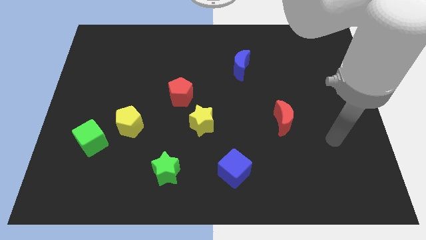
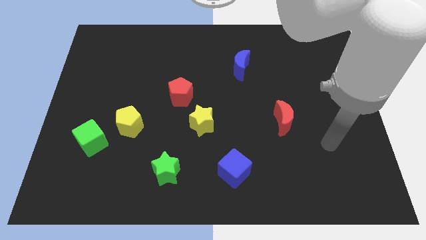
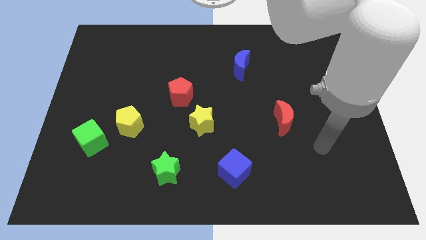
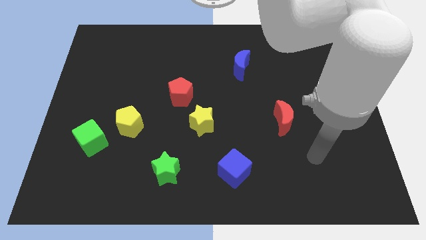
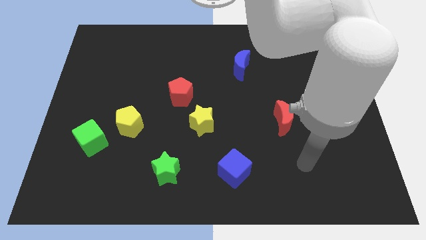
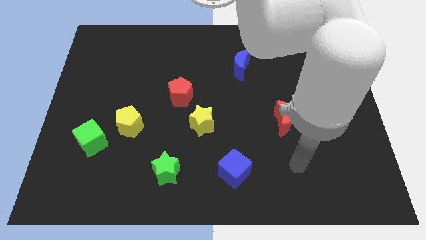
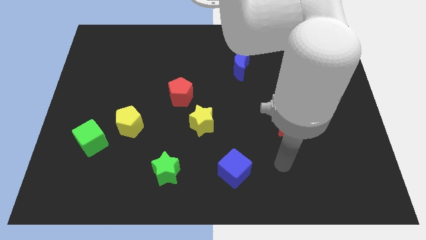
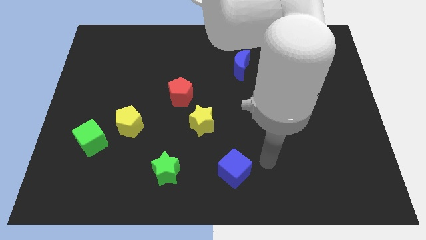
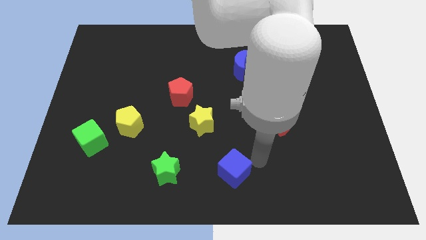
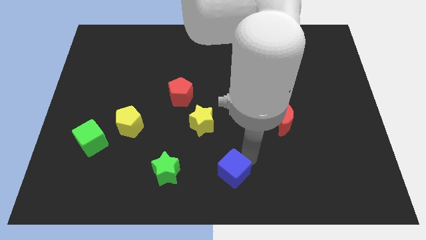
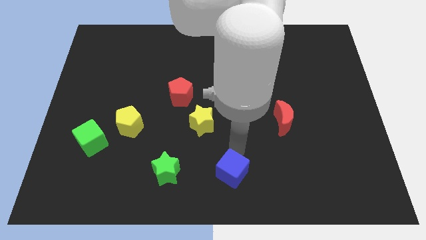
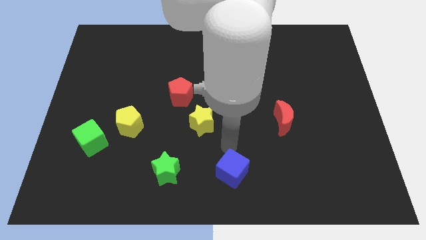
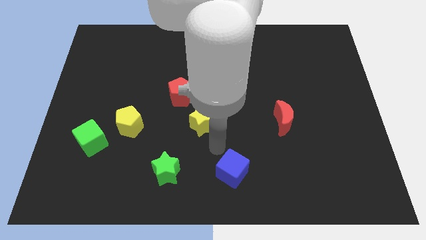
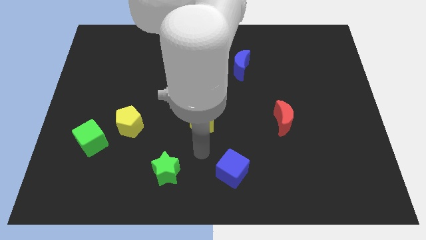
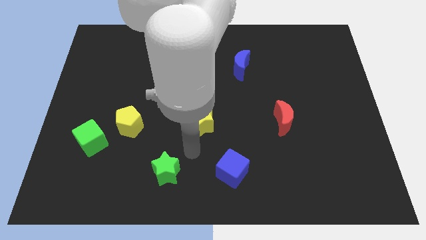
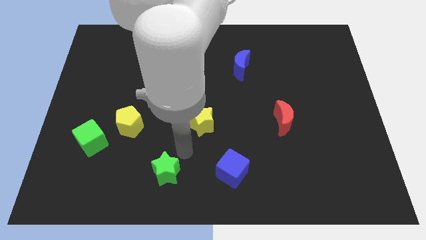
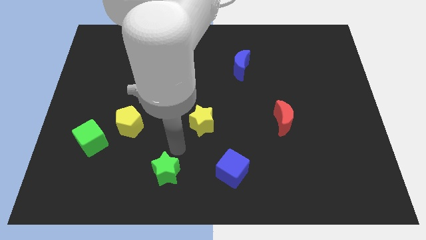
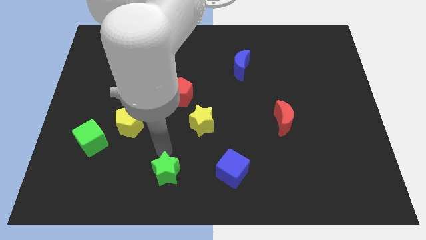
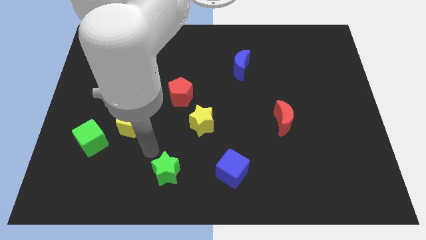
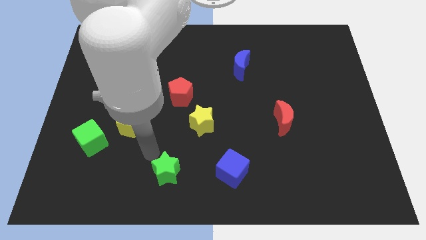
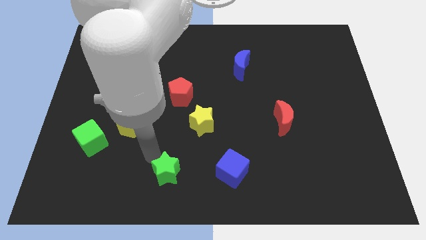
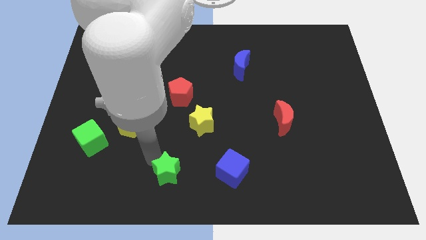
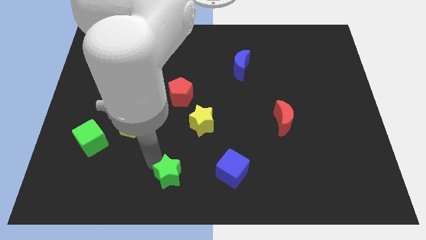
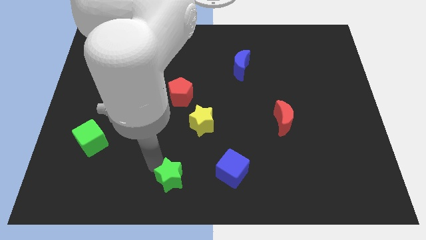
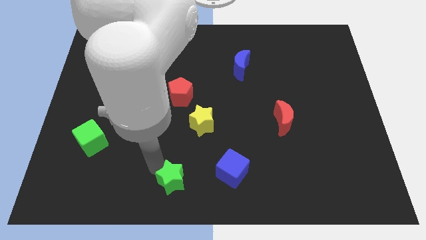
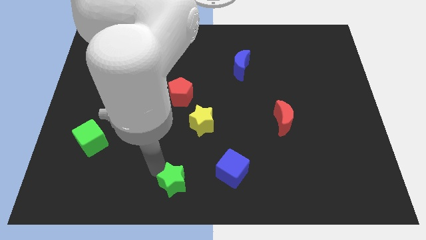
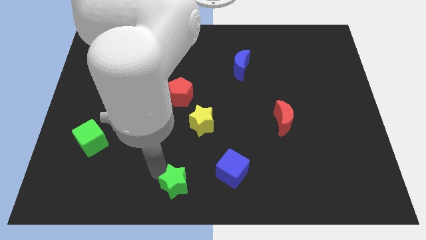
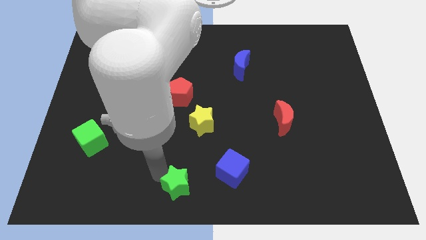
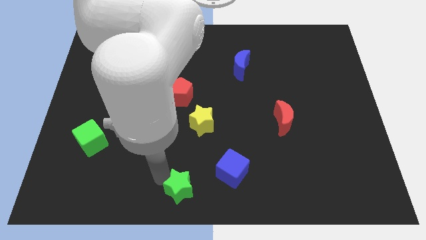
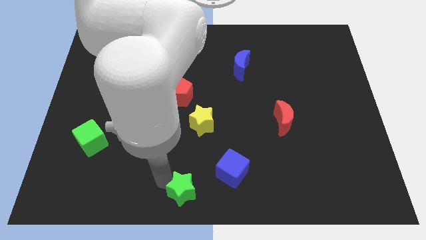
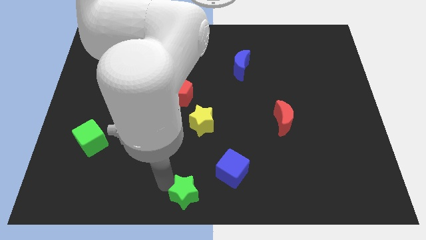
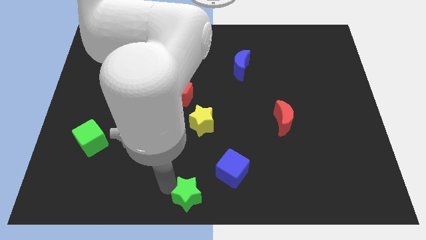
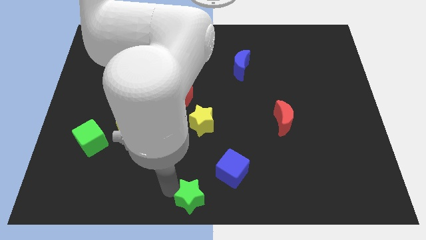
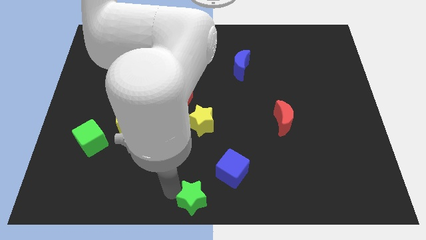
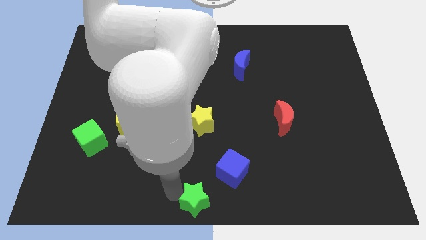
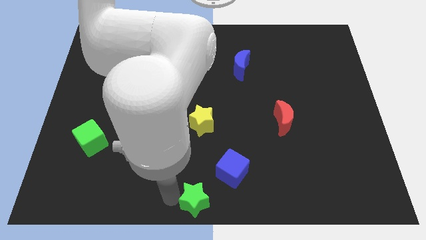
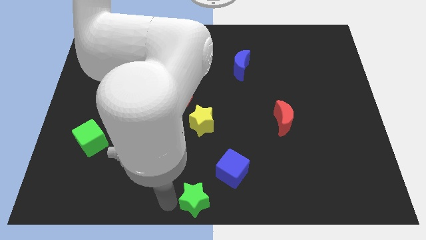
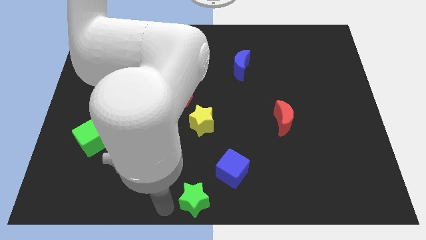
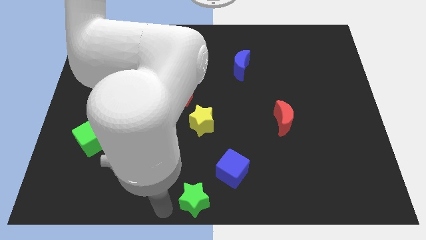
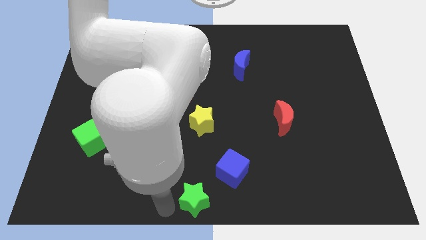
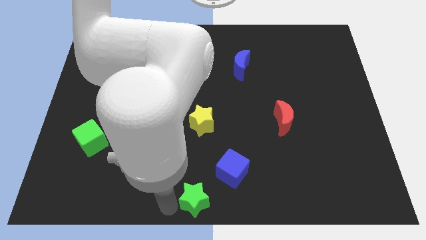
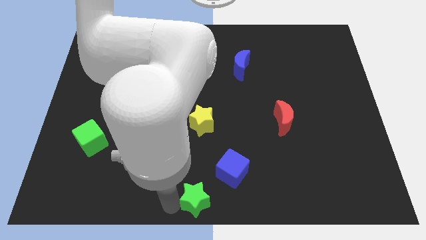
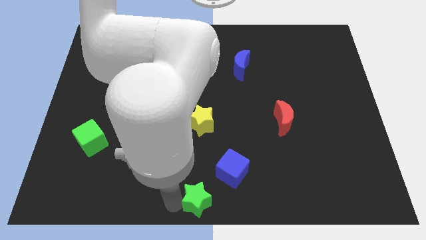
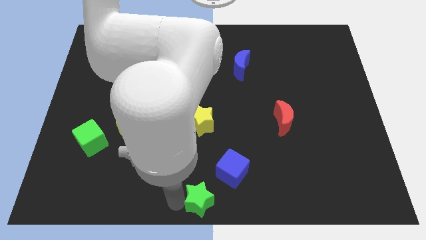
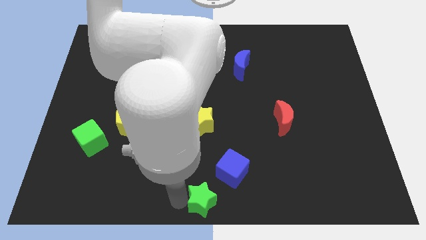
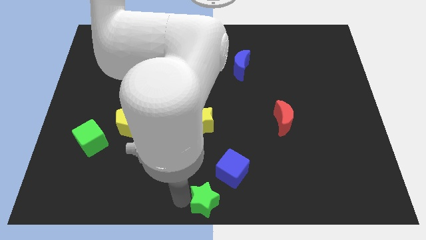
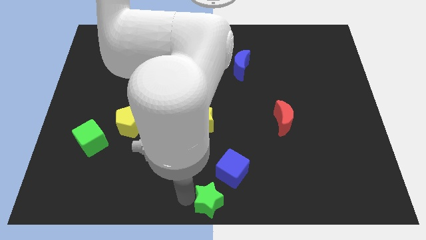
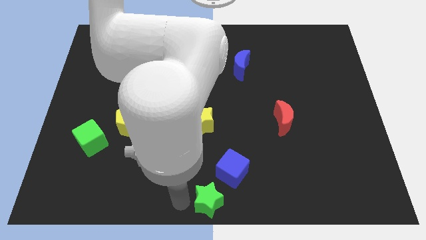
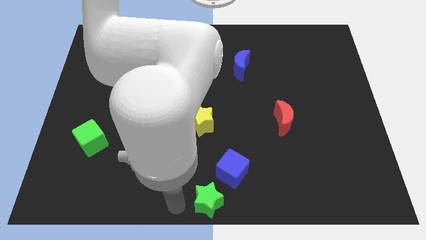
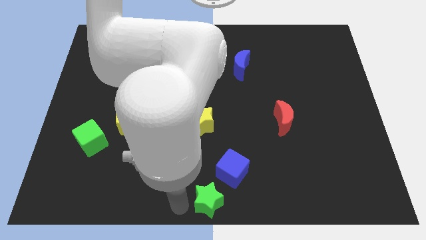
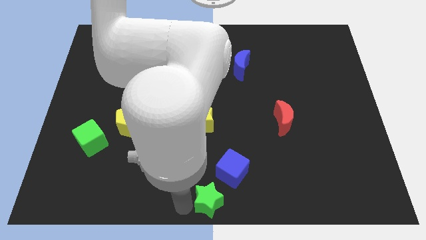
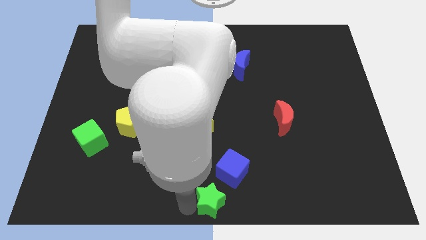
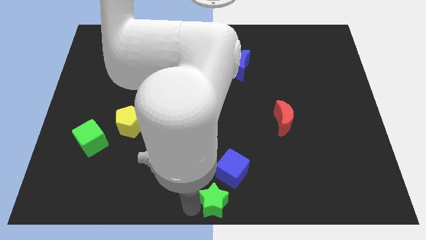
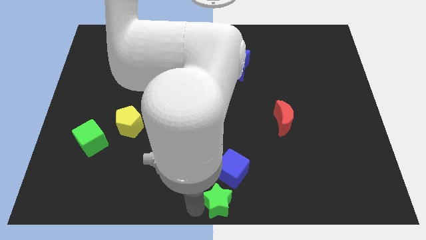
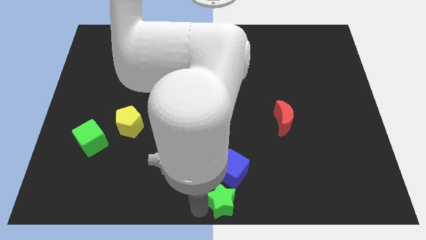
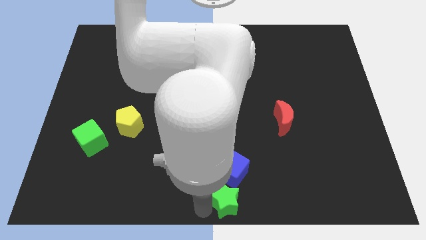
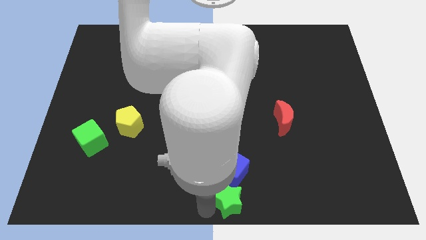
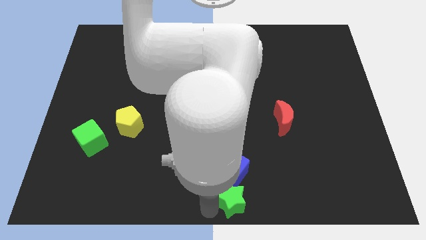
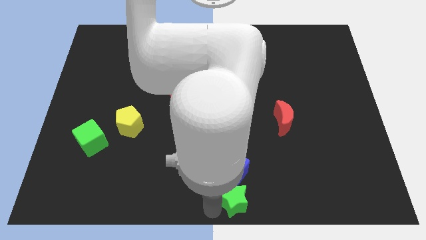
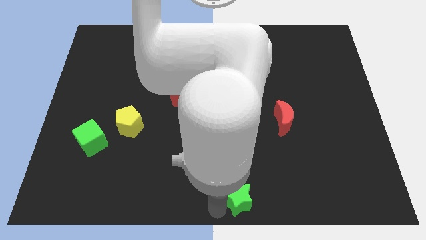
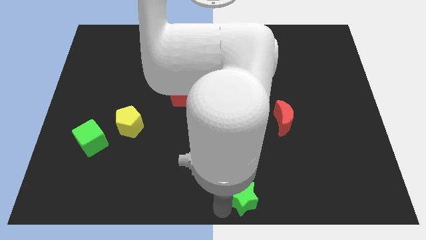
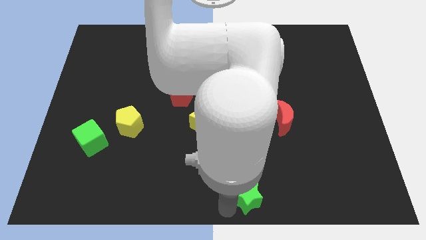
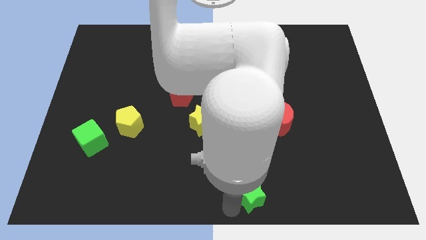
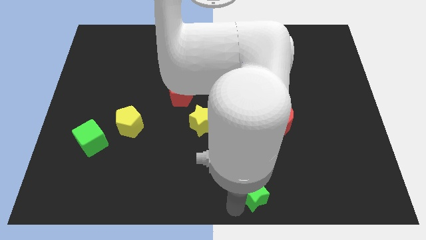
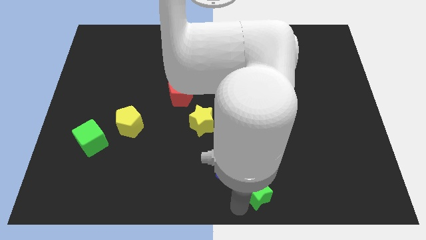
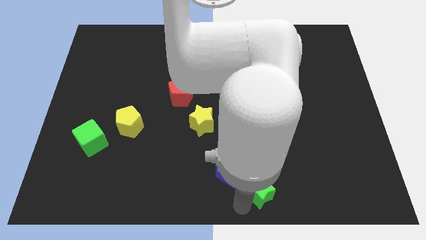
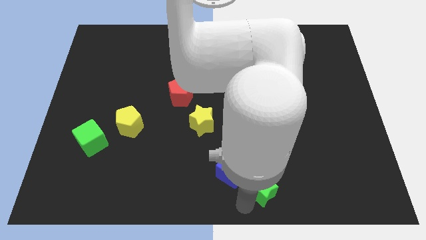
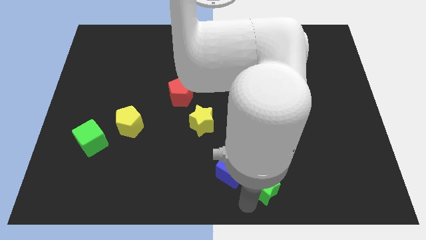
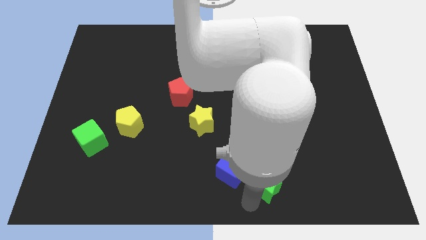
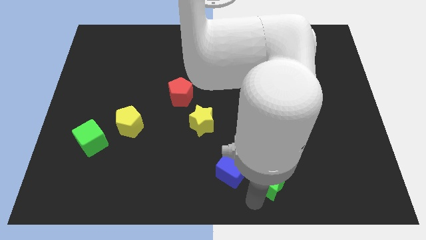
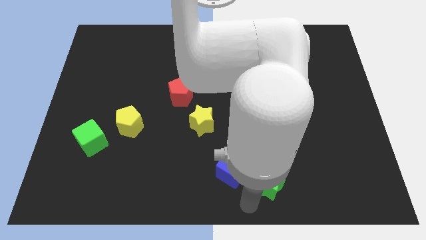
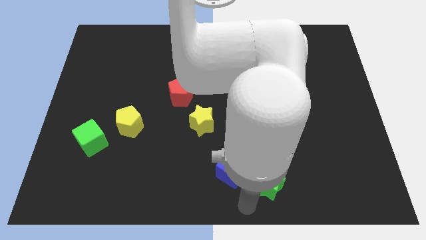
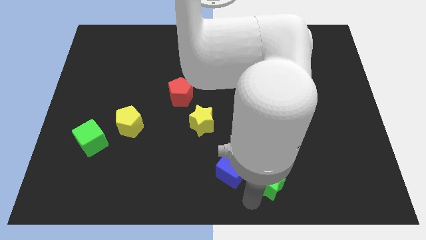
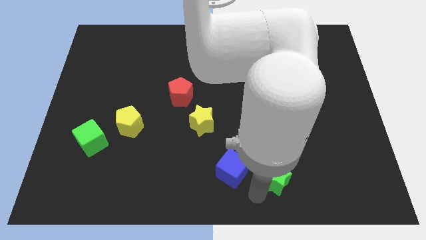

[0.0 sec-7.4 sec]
move the green star below the red moon

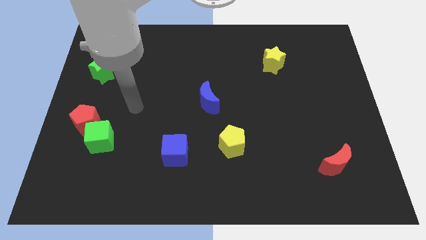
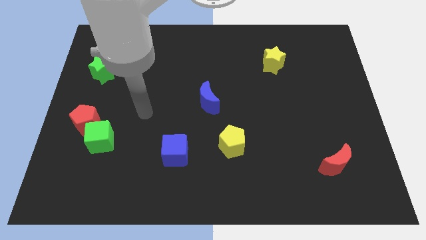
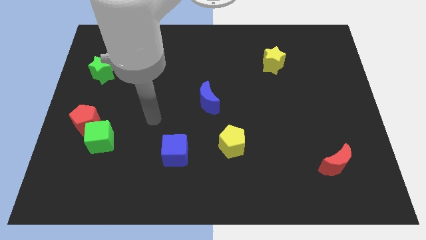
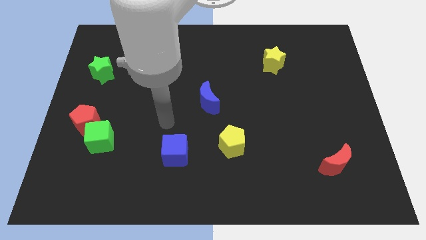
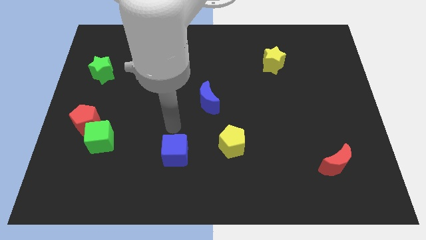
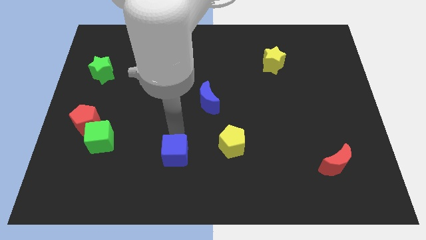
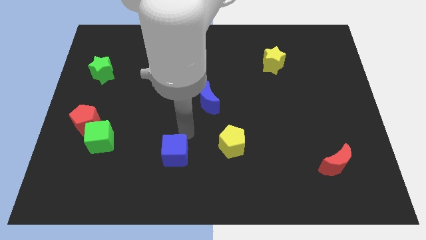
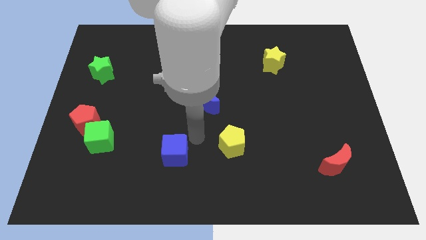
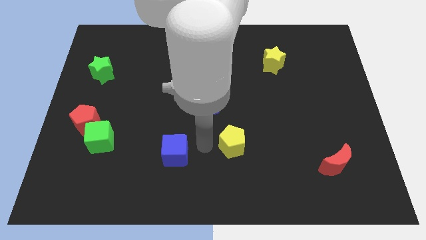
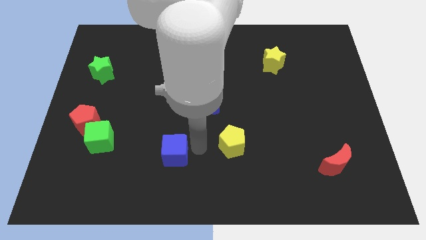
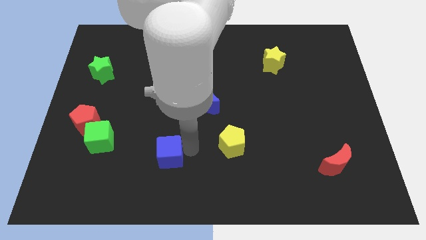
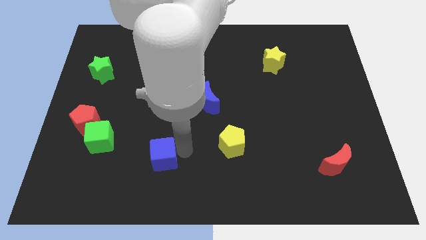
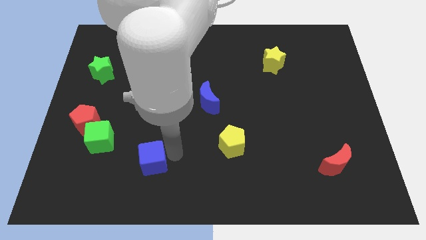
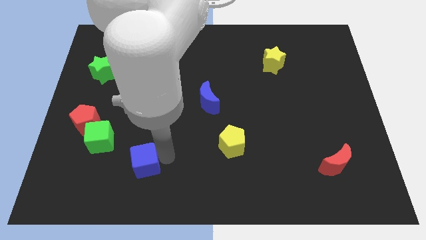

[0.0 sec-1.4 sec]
push the blue cube diagonally down and to the right of the green cube
